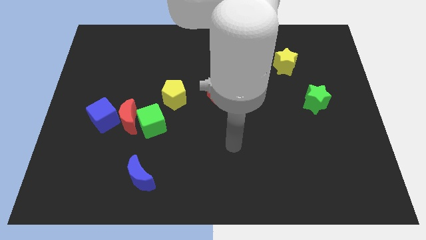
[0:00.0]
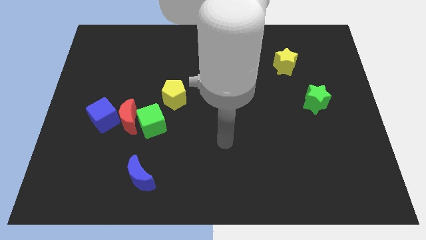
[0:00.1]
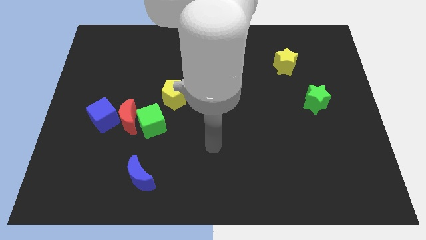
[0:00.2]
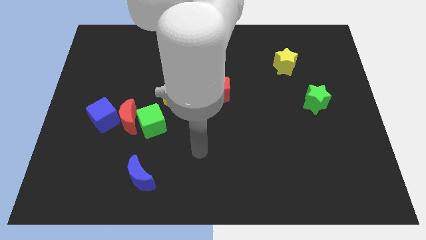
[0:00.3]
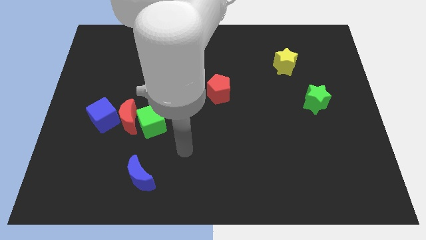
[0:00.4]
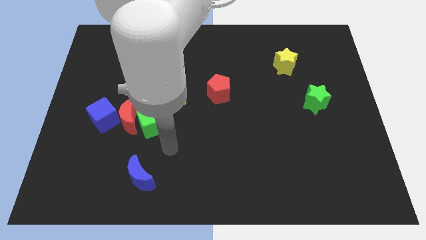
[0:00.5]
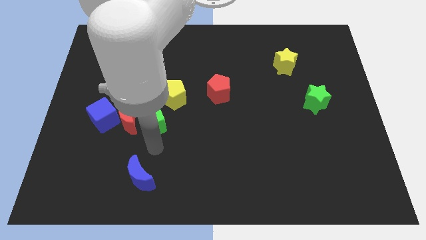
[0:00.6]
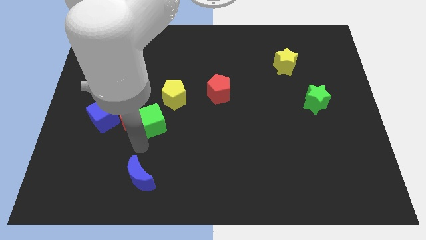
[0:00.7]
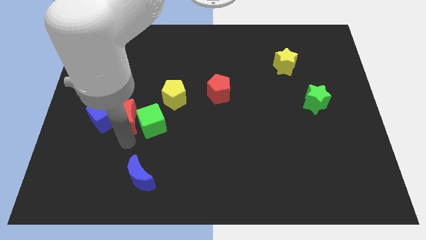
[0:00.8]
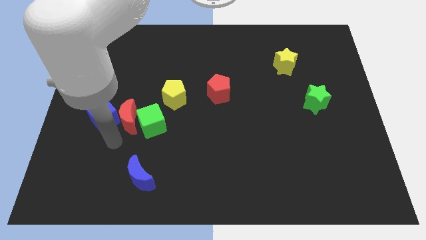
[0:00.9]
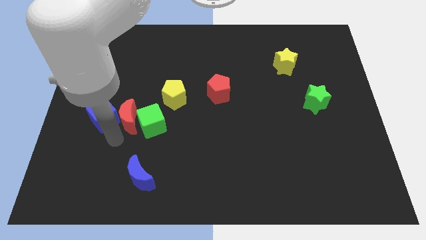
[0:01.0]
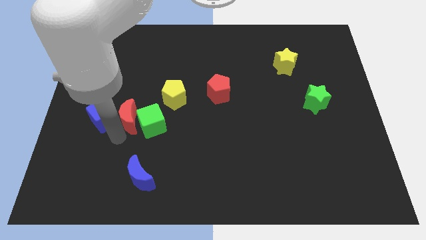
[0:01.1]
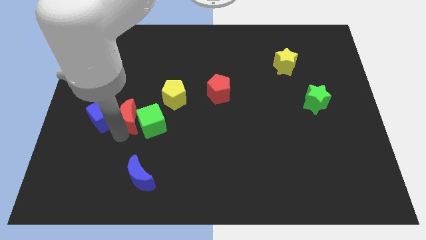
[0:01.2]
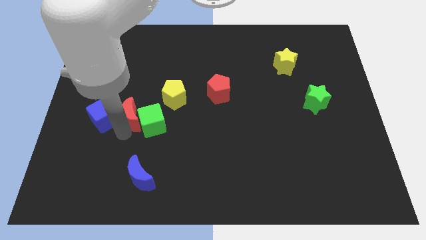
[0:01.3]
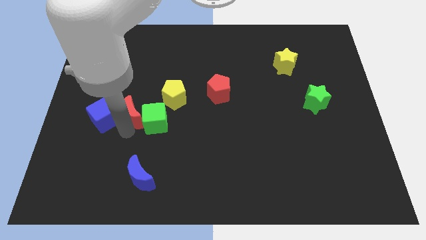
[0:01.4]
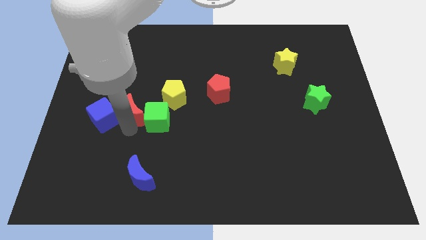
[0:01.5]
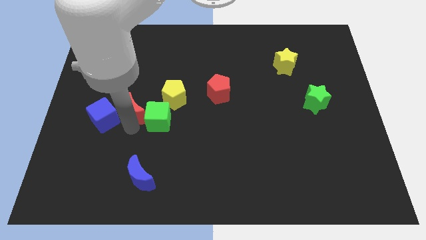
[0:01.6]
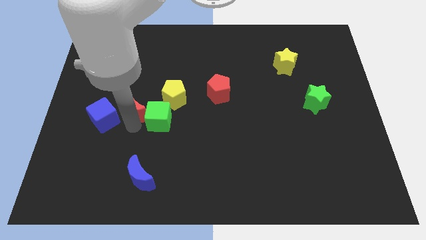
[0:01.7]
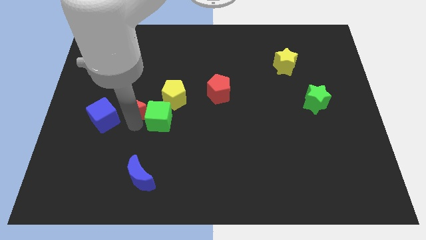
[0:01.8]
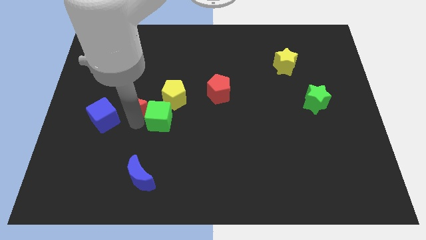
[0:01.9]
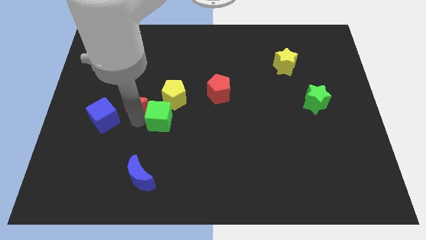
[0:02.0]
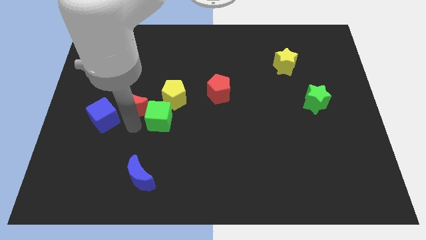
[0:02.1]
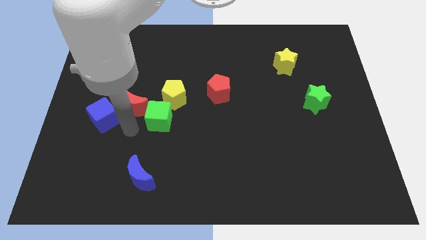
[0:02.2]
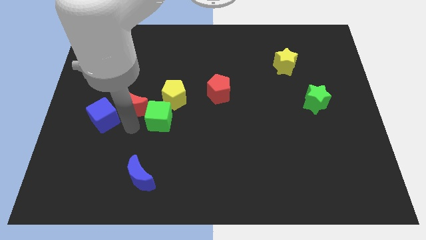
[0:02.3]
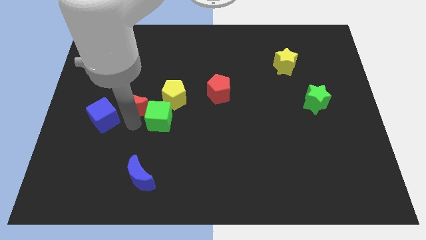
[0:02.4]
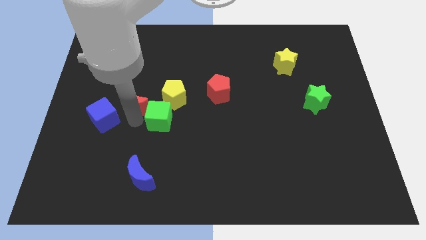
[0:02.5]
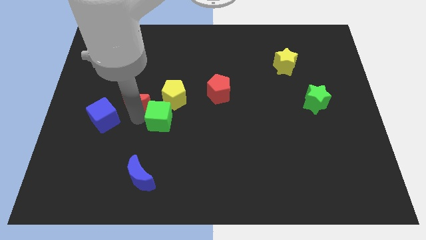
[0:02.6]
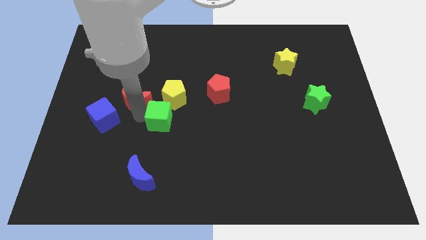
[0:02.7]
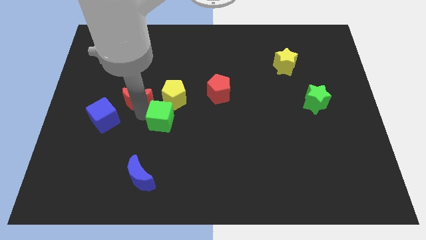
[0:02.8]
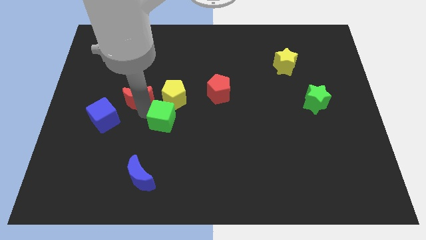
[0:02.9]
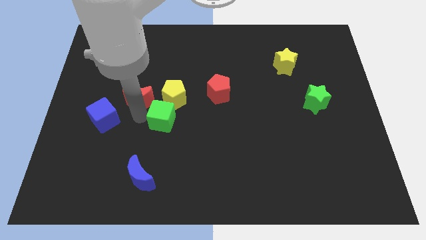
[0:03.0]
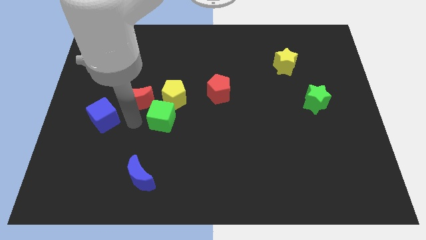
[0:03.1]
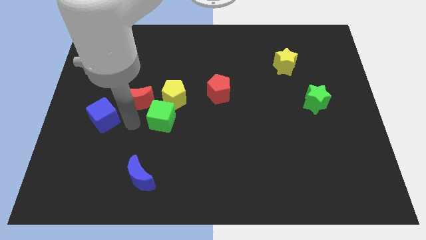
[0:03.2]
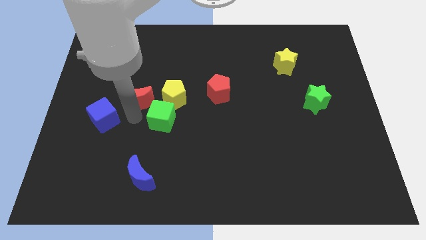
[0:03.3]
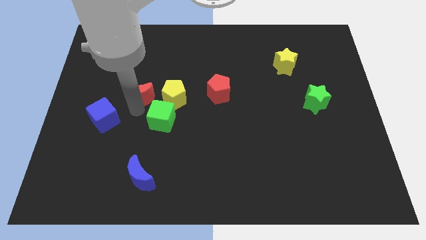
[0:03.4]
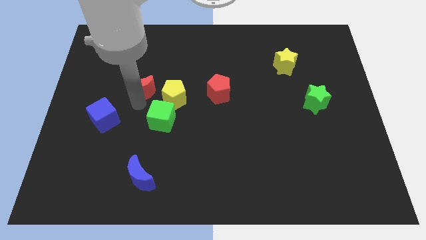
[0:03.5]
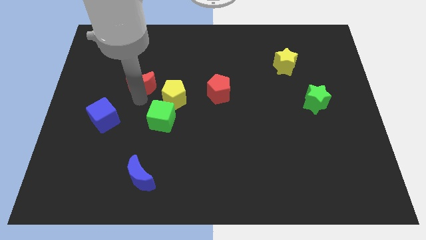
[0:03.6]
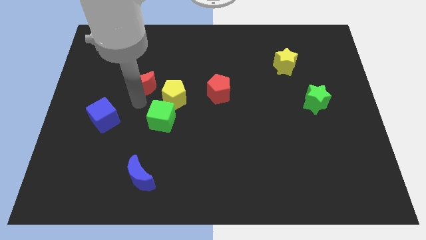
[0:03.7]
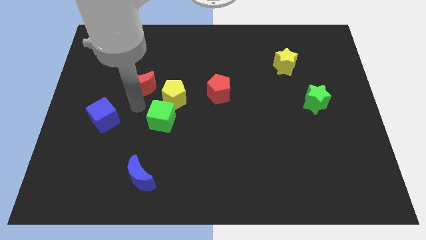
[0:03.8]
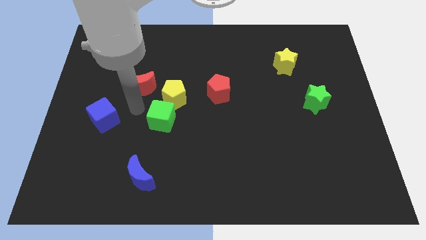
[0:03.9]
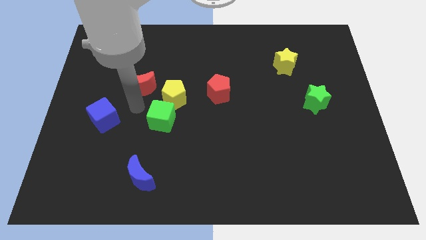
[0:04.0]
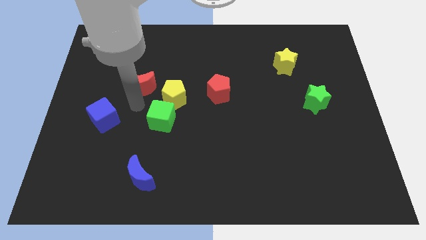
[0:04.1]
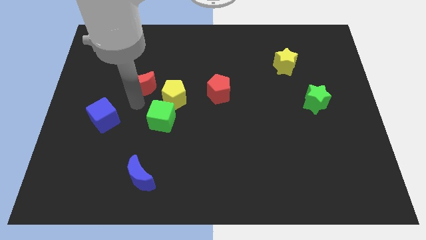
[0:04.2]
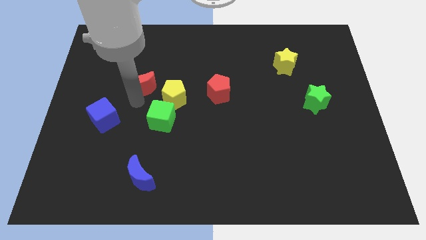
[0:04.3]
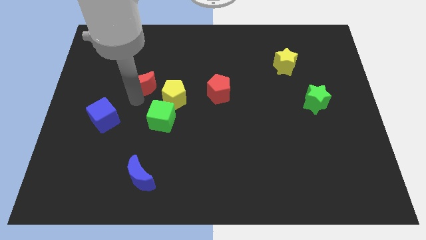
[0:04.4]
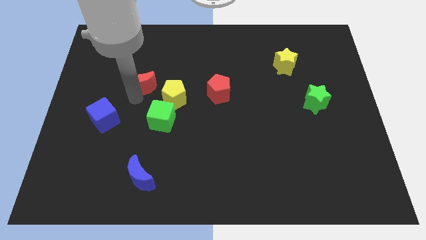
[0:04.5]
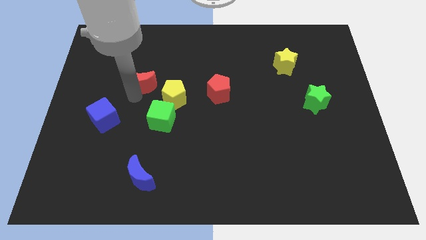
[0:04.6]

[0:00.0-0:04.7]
move the red moon away from the green cube and blue cube

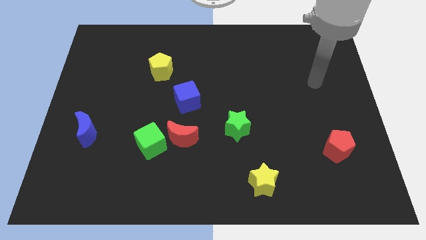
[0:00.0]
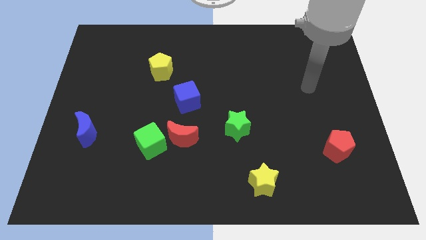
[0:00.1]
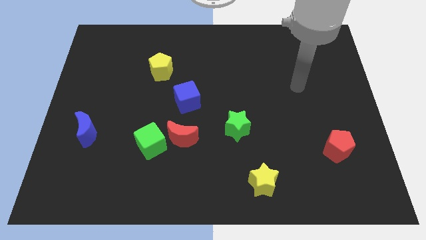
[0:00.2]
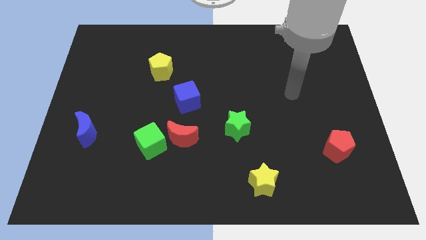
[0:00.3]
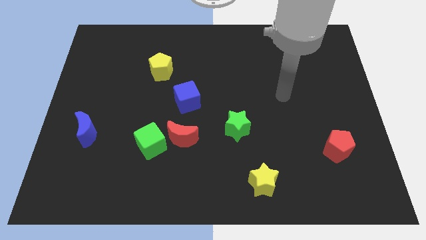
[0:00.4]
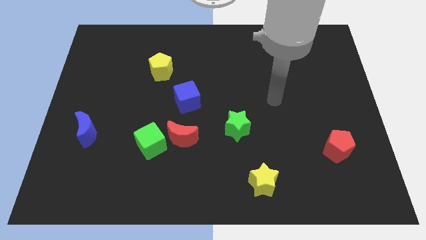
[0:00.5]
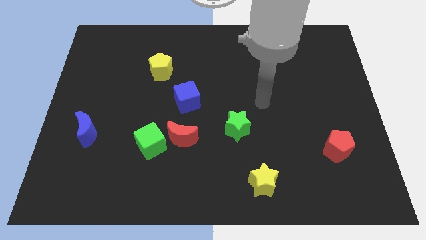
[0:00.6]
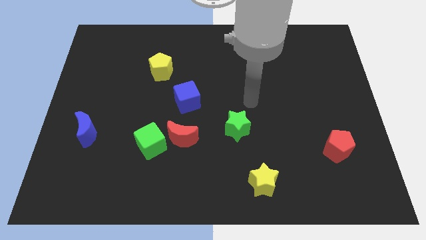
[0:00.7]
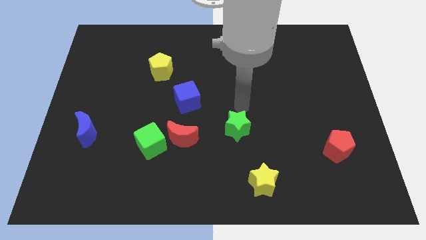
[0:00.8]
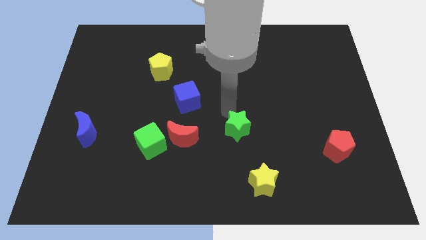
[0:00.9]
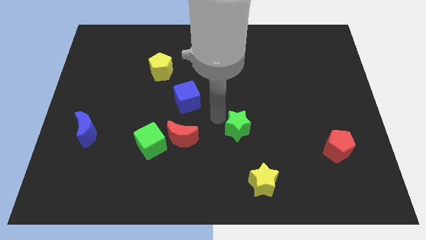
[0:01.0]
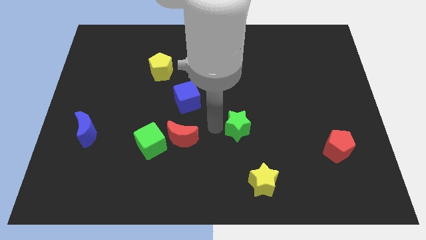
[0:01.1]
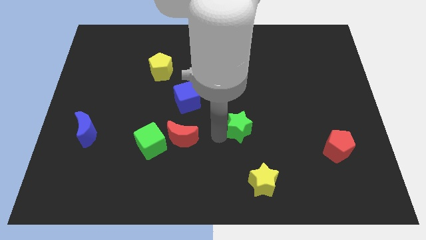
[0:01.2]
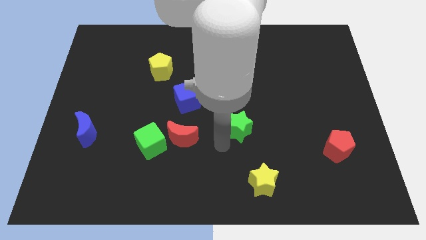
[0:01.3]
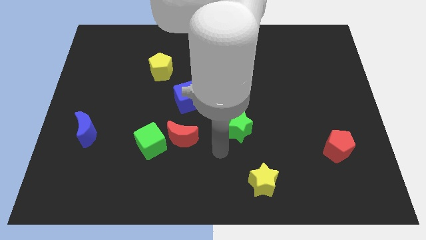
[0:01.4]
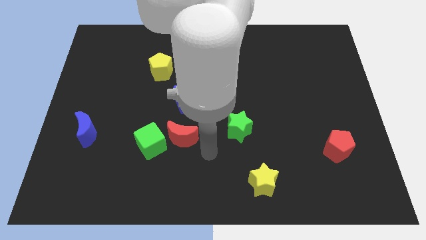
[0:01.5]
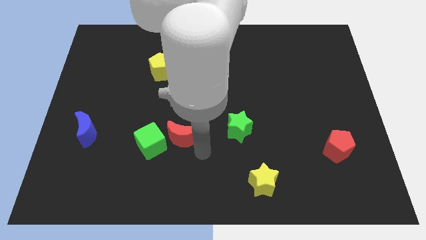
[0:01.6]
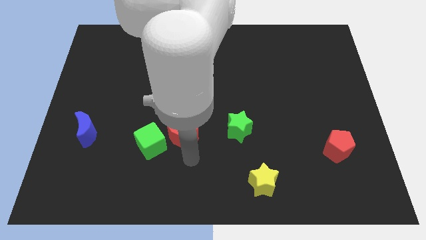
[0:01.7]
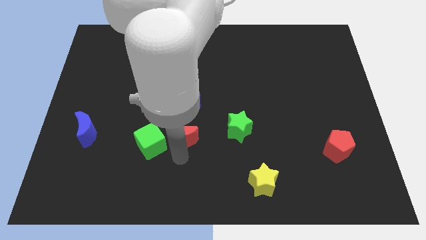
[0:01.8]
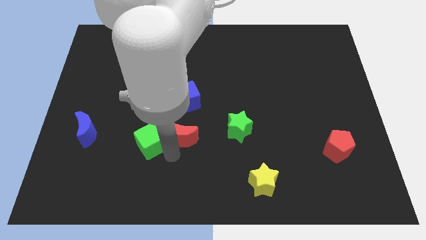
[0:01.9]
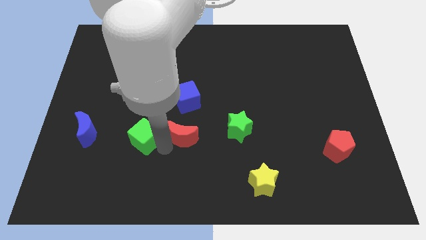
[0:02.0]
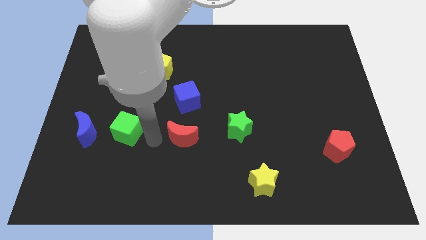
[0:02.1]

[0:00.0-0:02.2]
pull the red moon apart from the green cube

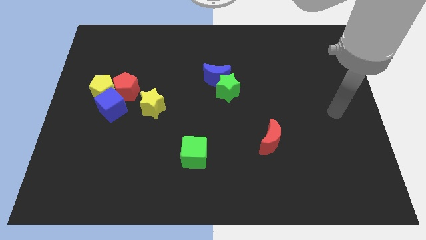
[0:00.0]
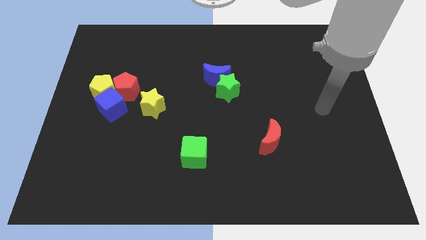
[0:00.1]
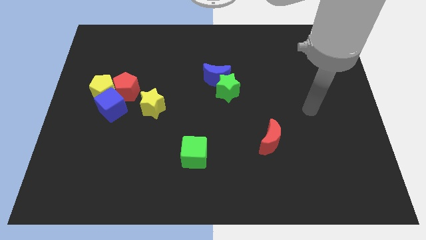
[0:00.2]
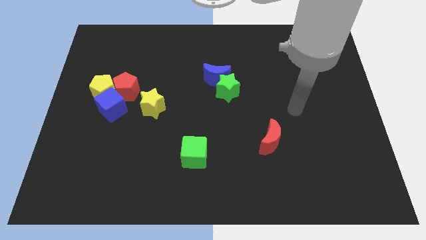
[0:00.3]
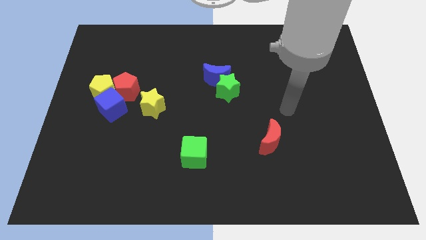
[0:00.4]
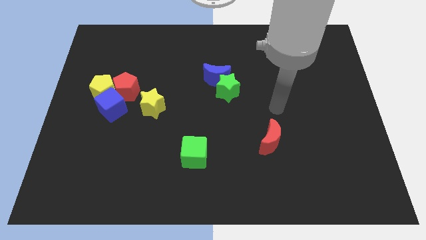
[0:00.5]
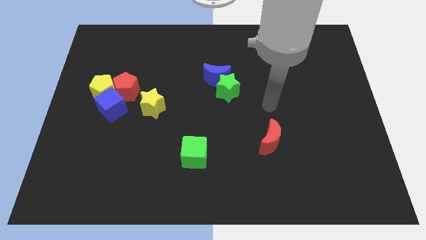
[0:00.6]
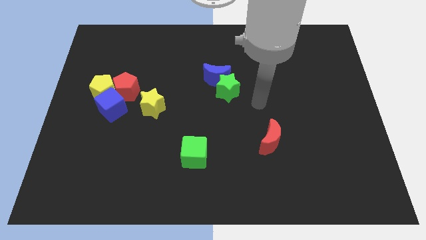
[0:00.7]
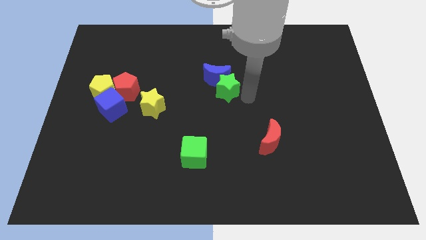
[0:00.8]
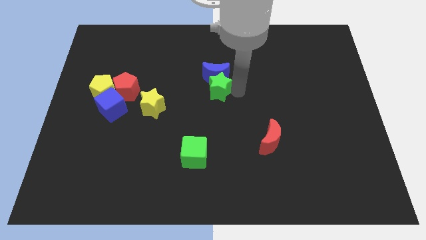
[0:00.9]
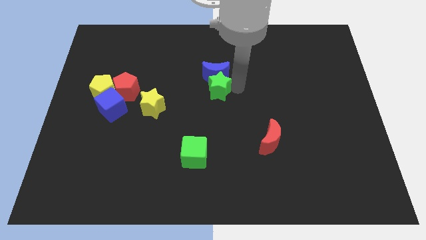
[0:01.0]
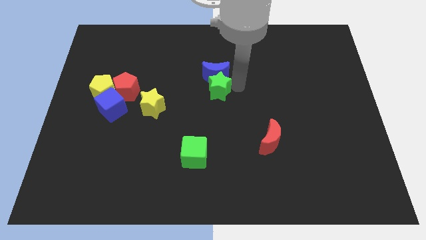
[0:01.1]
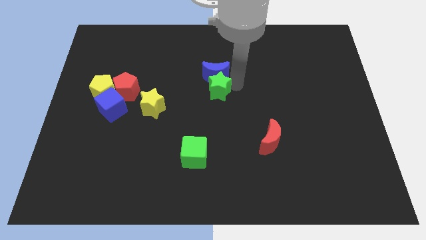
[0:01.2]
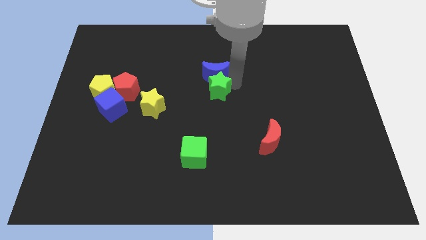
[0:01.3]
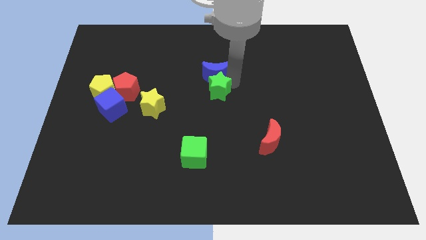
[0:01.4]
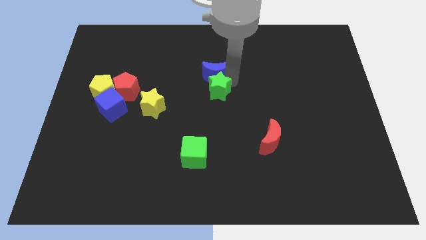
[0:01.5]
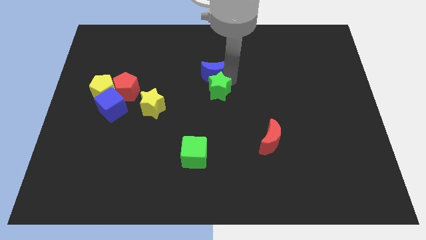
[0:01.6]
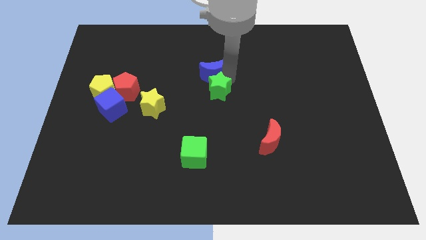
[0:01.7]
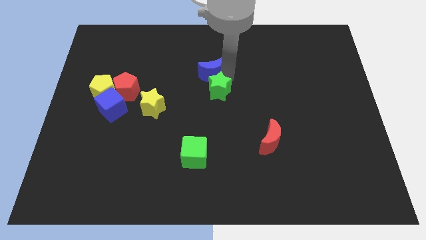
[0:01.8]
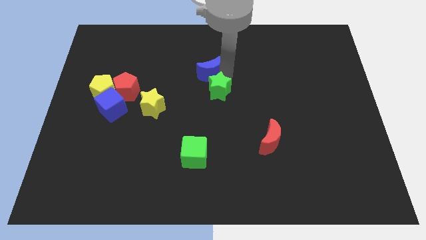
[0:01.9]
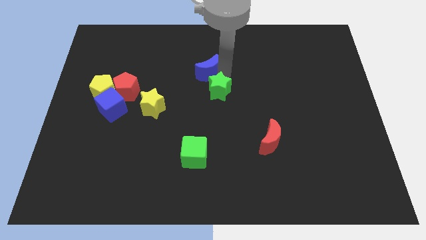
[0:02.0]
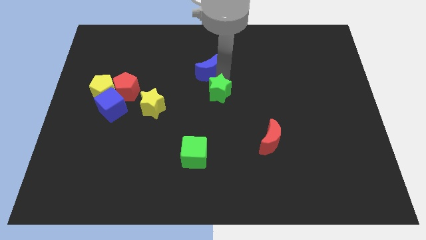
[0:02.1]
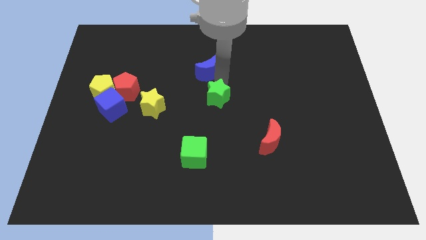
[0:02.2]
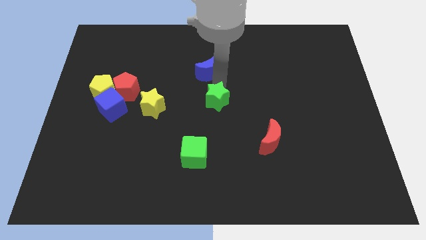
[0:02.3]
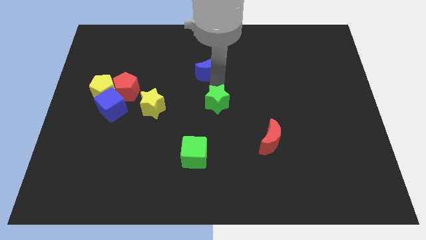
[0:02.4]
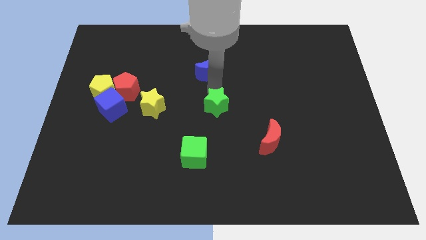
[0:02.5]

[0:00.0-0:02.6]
pull the blue moon apart from the green star
